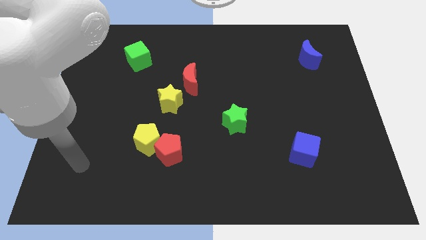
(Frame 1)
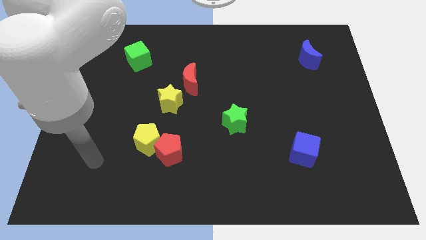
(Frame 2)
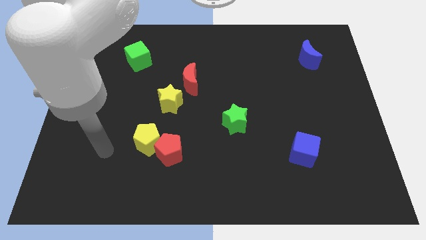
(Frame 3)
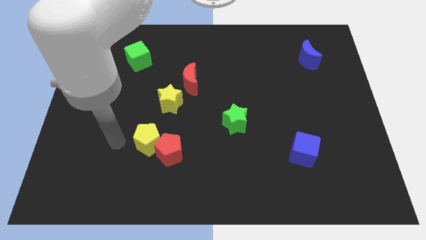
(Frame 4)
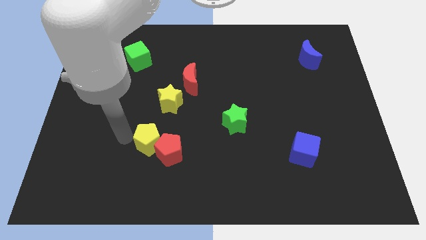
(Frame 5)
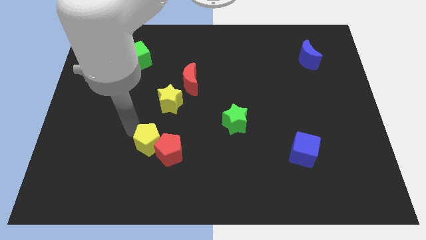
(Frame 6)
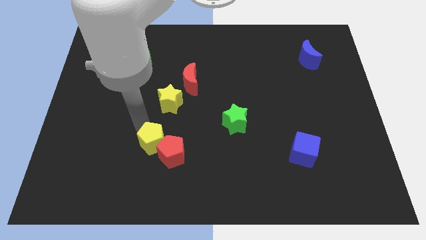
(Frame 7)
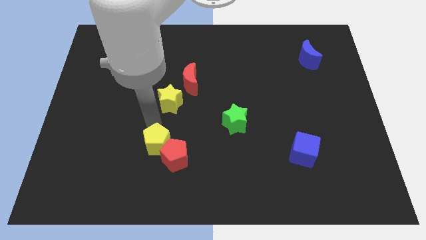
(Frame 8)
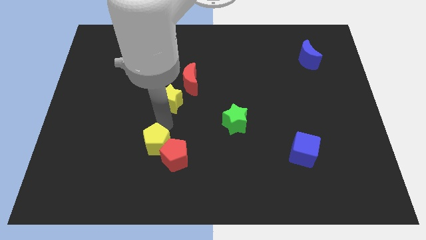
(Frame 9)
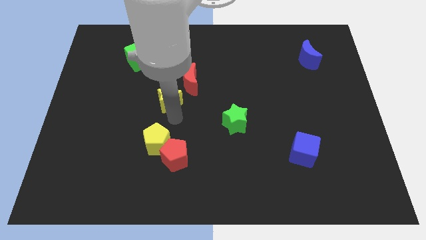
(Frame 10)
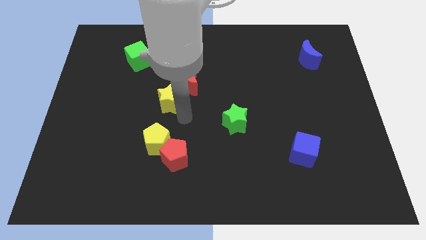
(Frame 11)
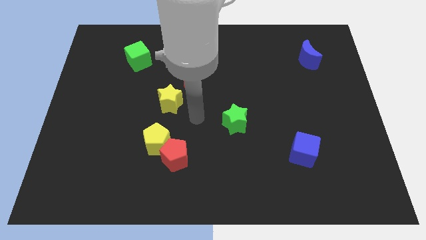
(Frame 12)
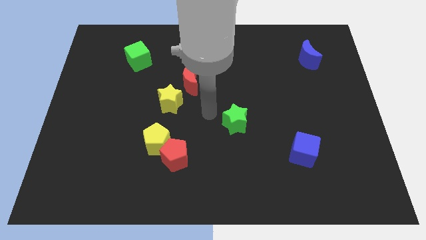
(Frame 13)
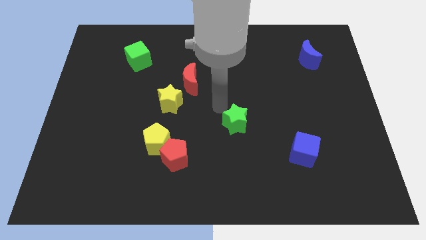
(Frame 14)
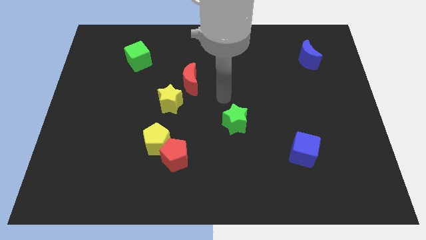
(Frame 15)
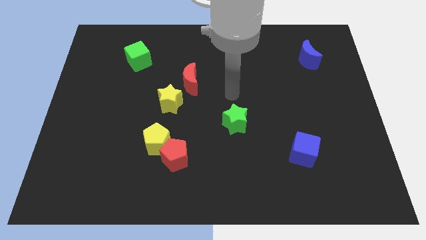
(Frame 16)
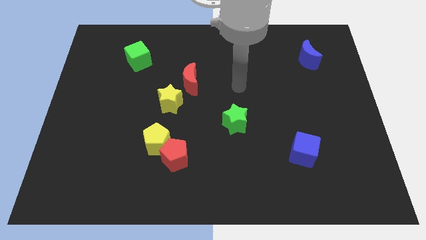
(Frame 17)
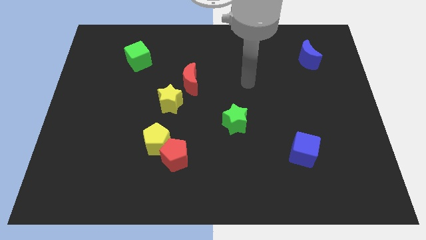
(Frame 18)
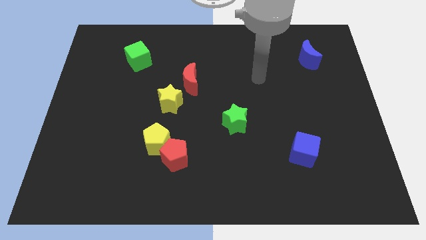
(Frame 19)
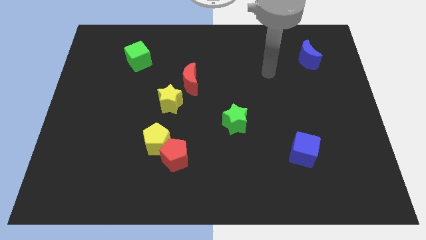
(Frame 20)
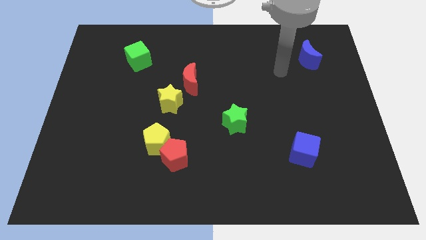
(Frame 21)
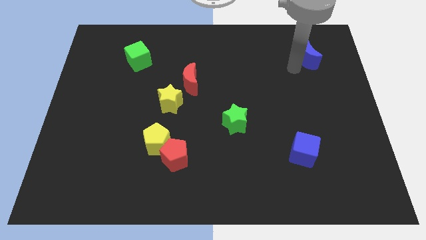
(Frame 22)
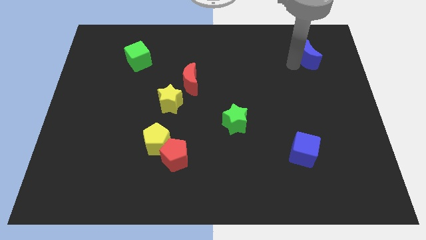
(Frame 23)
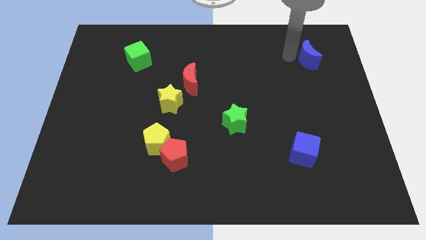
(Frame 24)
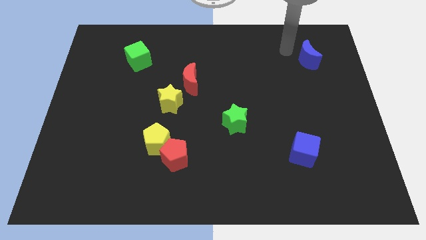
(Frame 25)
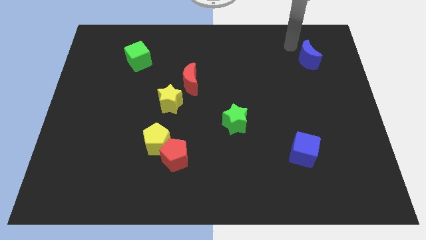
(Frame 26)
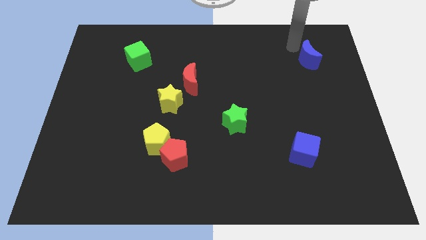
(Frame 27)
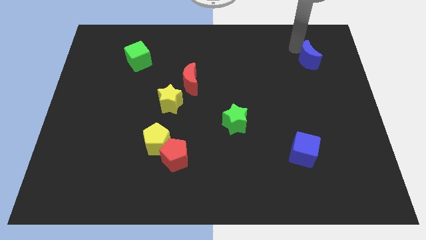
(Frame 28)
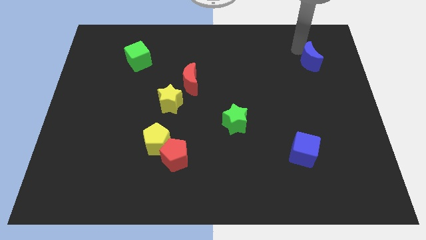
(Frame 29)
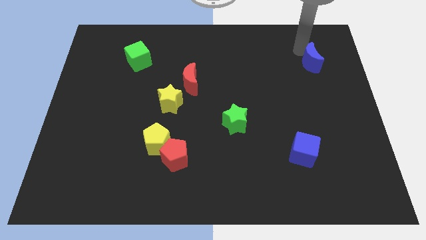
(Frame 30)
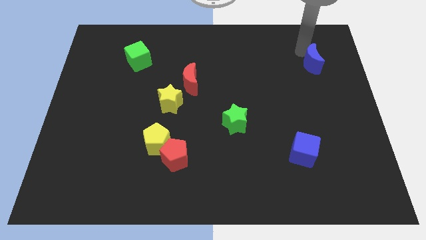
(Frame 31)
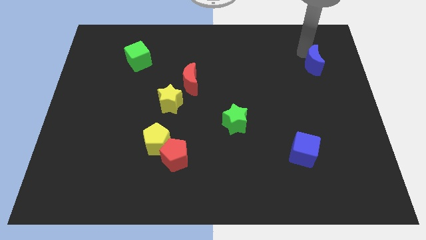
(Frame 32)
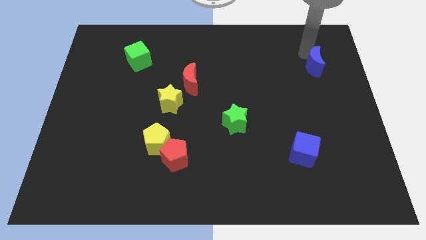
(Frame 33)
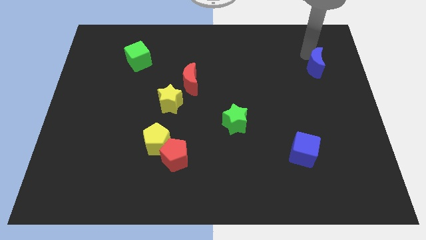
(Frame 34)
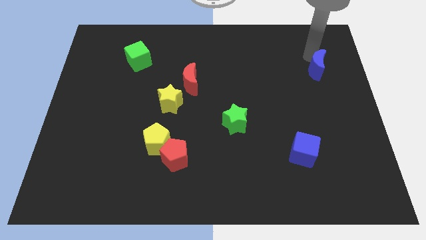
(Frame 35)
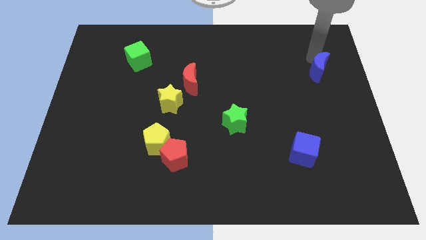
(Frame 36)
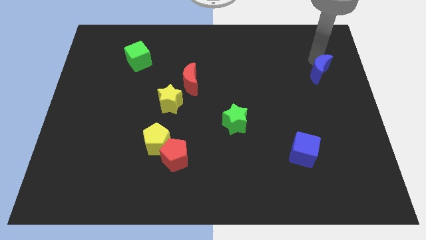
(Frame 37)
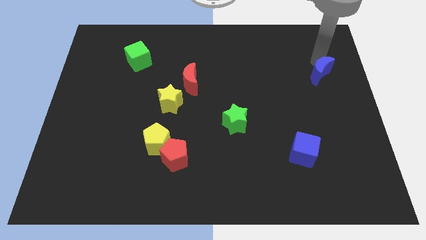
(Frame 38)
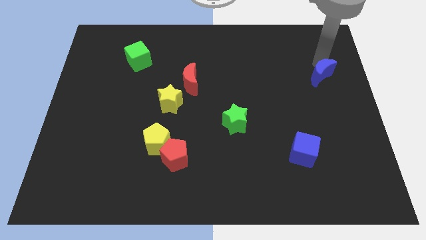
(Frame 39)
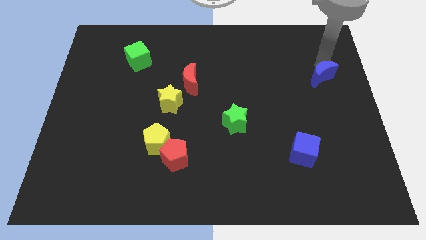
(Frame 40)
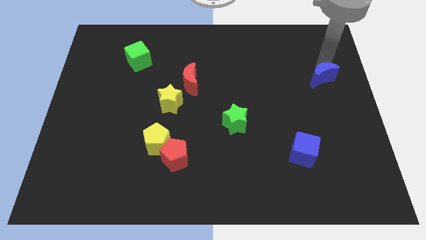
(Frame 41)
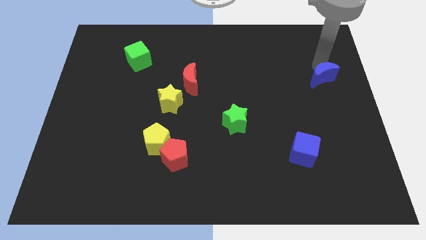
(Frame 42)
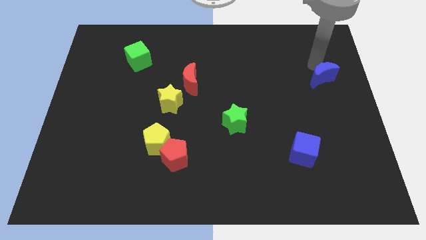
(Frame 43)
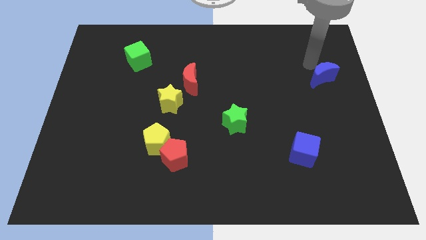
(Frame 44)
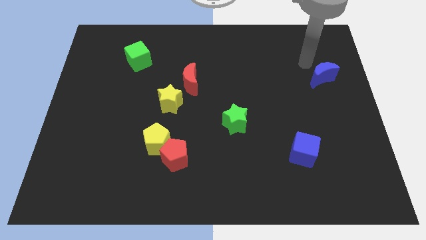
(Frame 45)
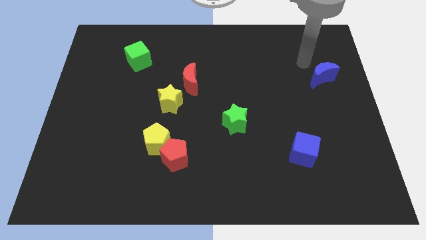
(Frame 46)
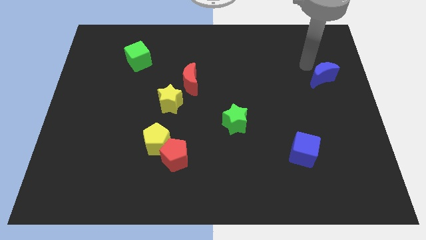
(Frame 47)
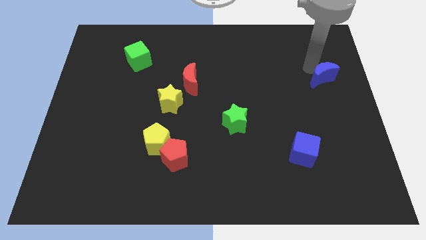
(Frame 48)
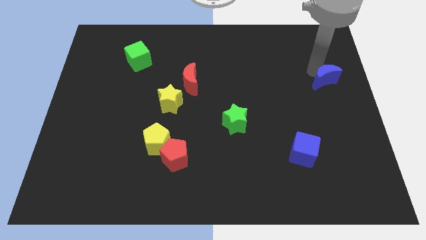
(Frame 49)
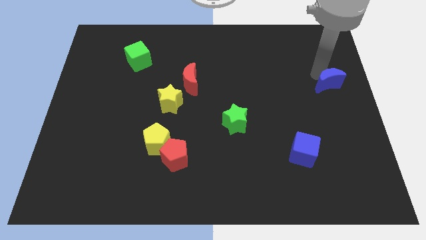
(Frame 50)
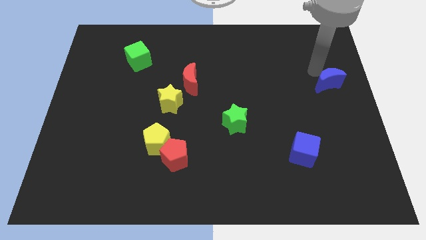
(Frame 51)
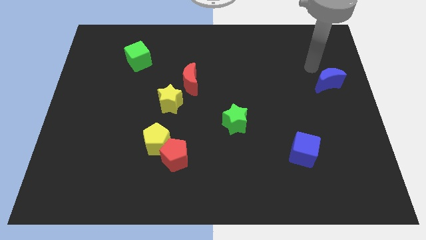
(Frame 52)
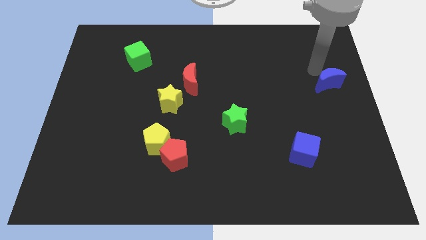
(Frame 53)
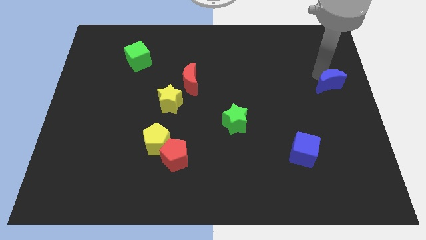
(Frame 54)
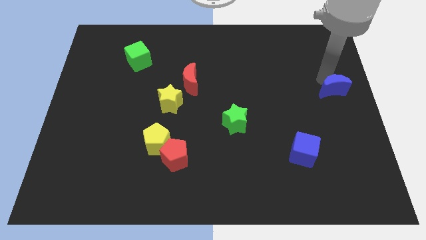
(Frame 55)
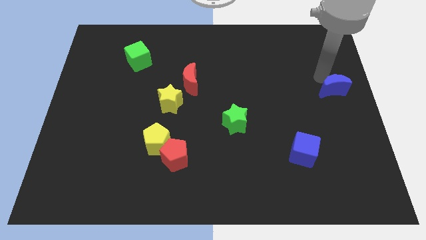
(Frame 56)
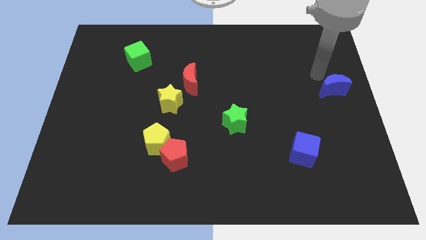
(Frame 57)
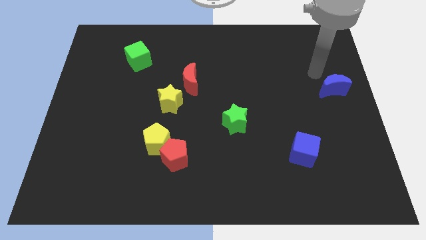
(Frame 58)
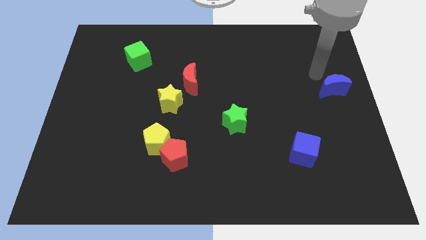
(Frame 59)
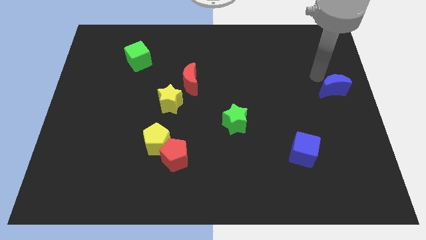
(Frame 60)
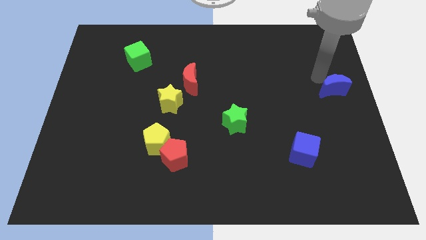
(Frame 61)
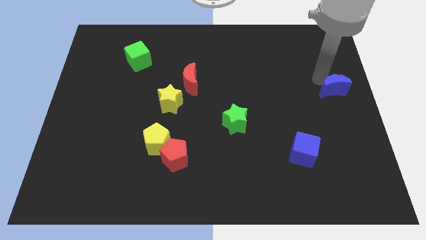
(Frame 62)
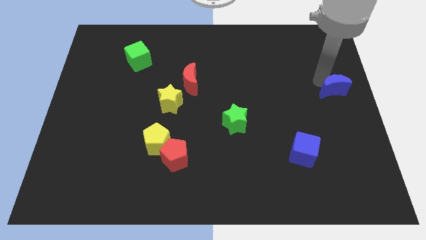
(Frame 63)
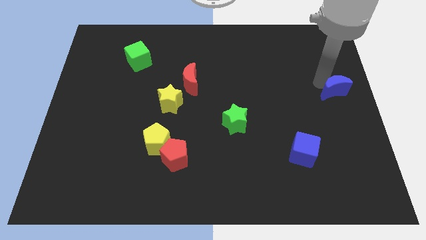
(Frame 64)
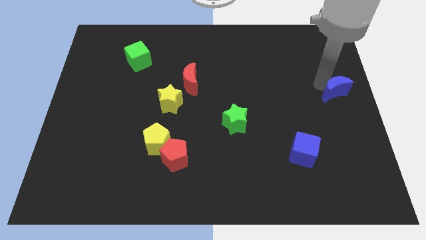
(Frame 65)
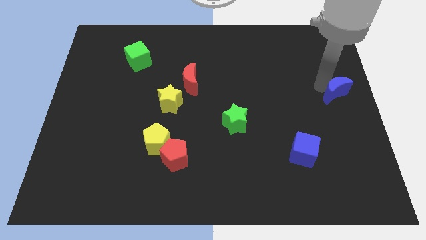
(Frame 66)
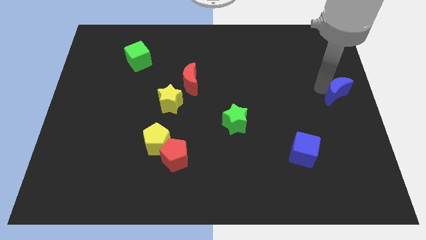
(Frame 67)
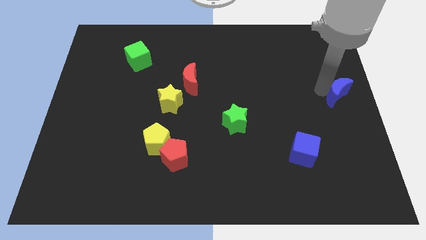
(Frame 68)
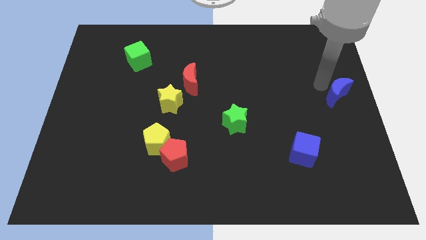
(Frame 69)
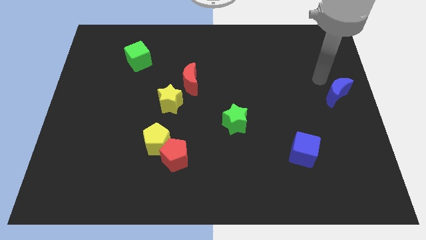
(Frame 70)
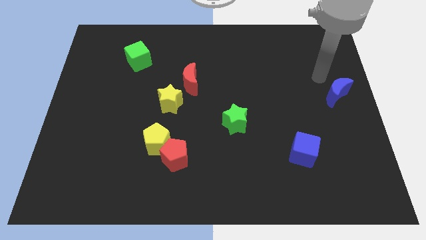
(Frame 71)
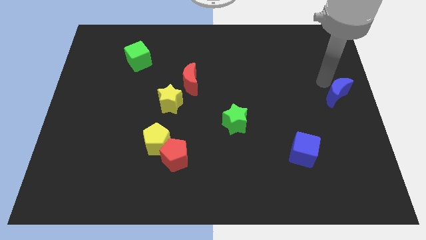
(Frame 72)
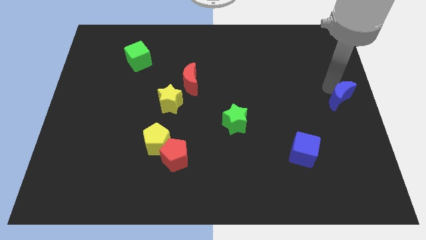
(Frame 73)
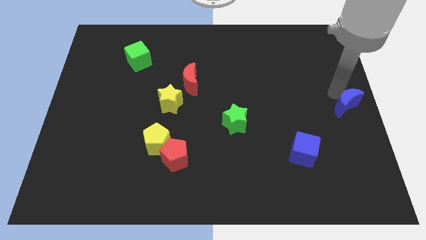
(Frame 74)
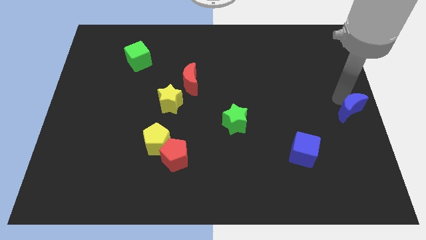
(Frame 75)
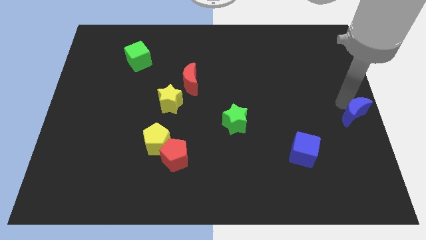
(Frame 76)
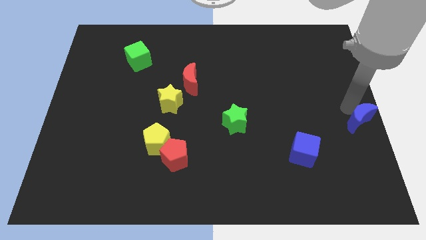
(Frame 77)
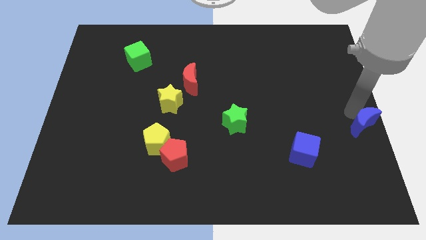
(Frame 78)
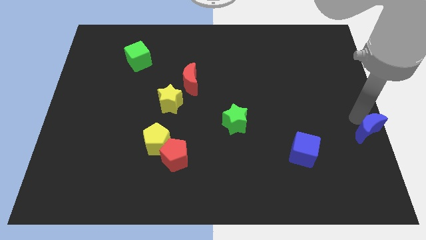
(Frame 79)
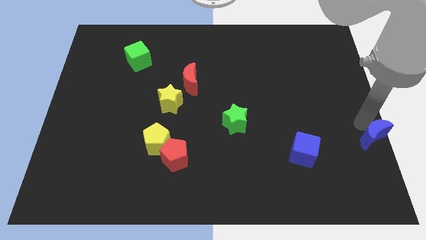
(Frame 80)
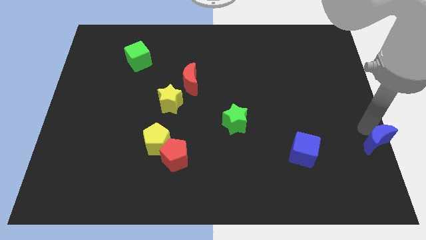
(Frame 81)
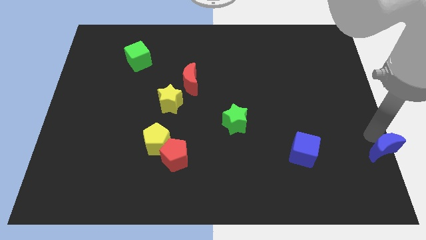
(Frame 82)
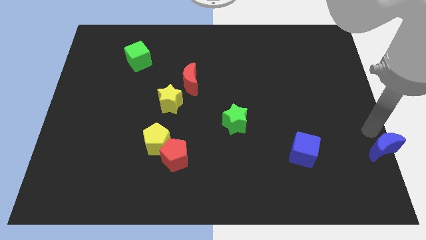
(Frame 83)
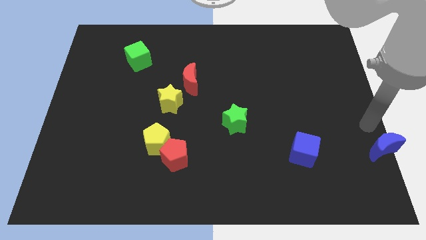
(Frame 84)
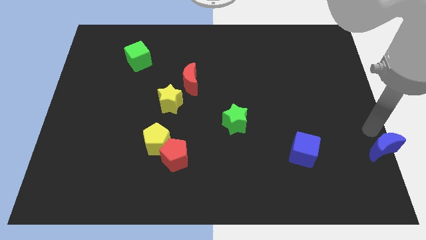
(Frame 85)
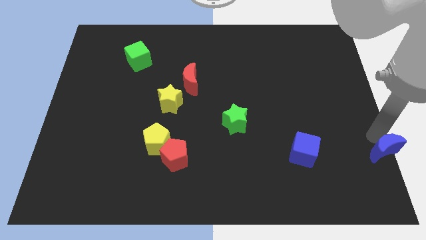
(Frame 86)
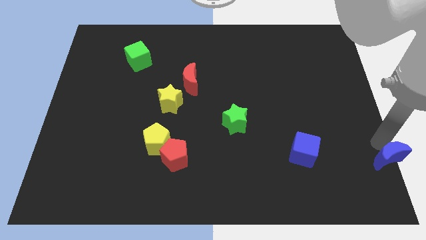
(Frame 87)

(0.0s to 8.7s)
push the blue moon to the lower right corner
